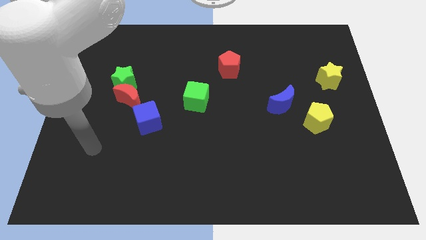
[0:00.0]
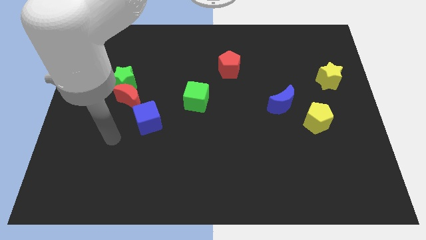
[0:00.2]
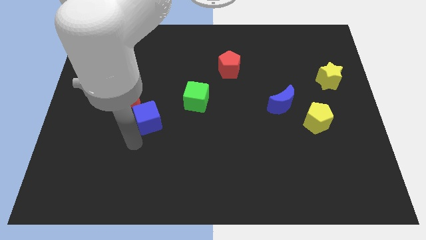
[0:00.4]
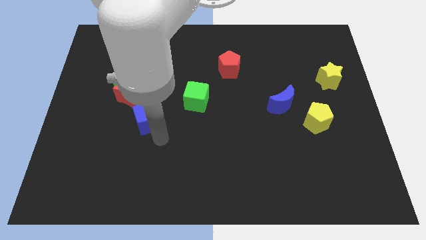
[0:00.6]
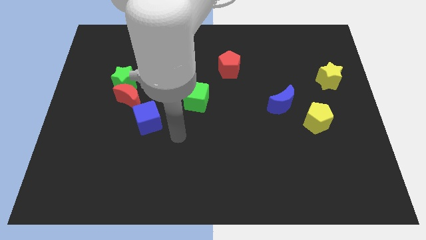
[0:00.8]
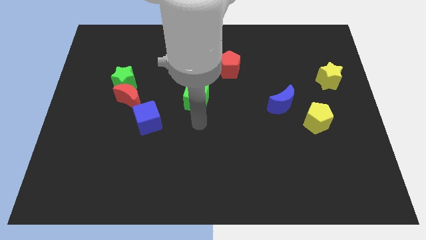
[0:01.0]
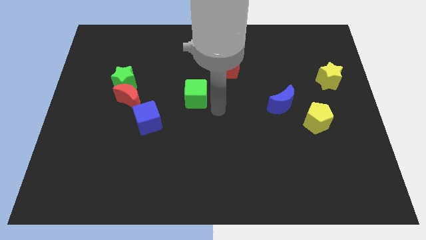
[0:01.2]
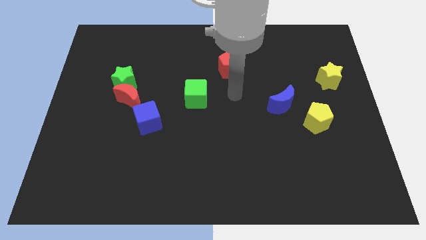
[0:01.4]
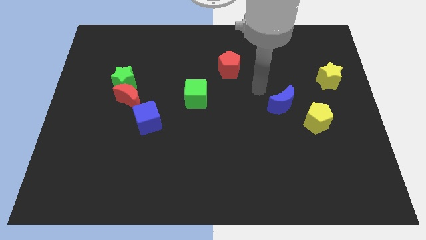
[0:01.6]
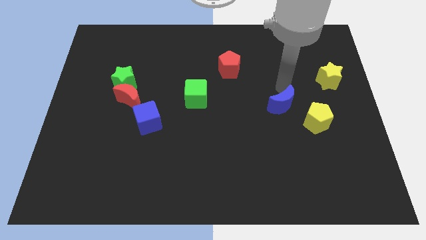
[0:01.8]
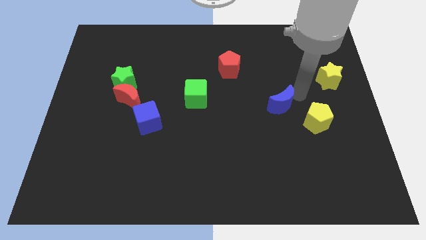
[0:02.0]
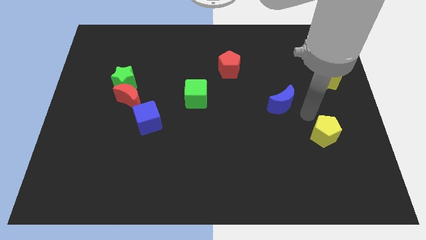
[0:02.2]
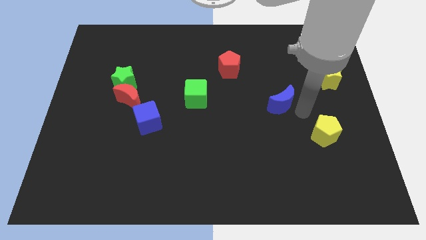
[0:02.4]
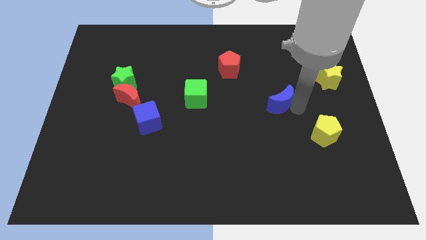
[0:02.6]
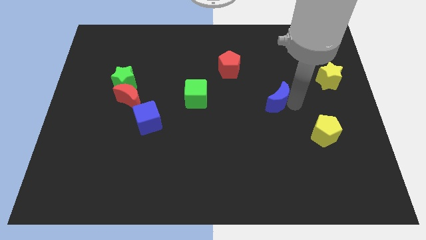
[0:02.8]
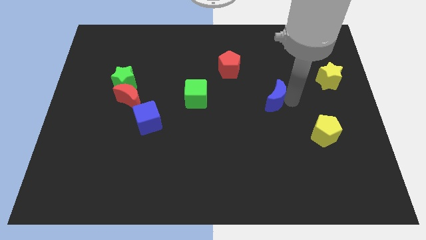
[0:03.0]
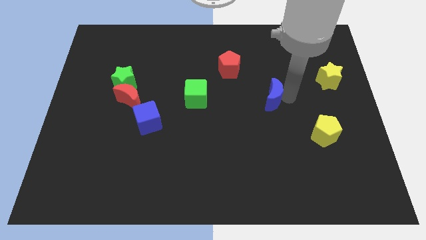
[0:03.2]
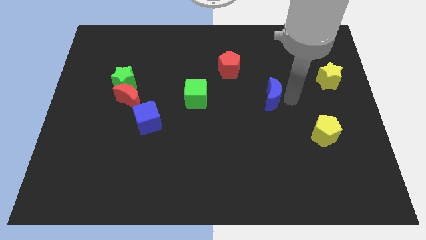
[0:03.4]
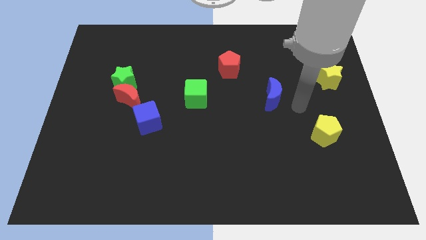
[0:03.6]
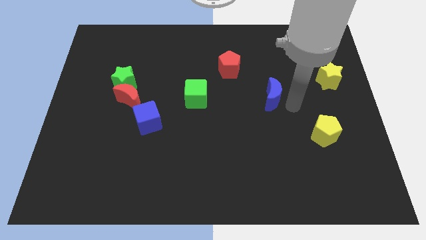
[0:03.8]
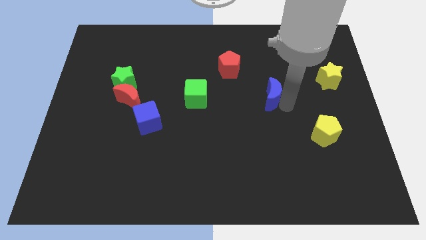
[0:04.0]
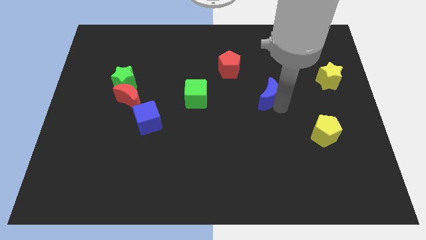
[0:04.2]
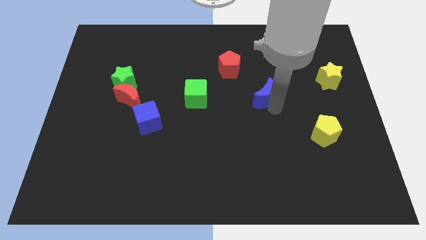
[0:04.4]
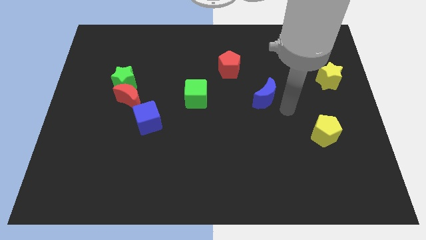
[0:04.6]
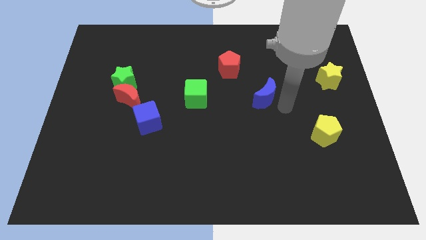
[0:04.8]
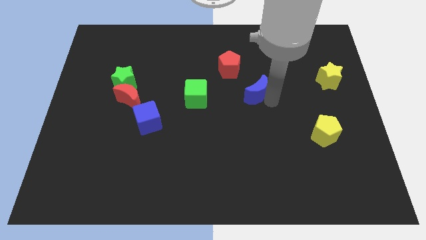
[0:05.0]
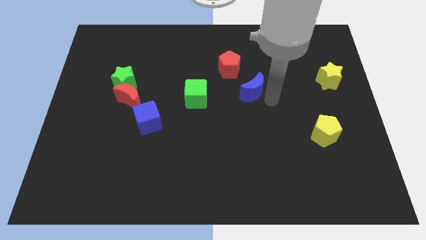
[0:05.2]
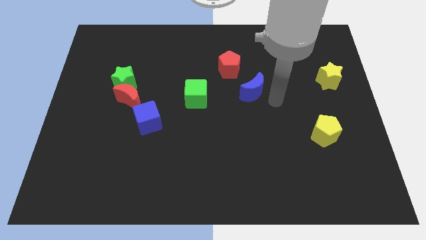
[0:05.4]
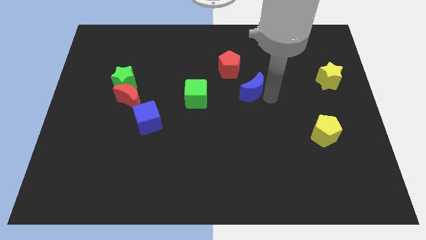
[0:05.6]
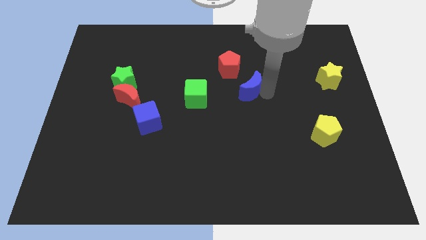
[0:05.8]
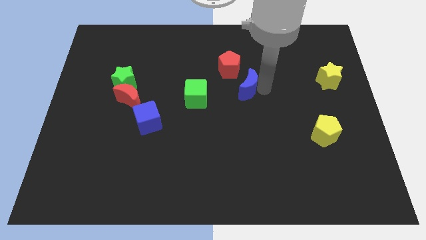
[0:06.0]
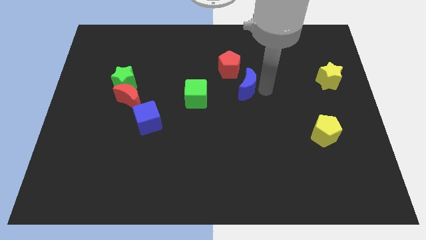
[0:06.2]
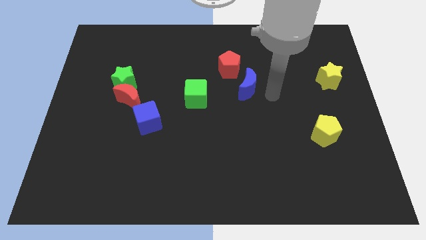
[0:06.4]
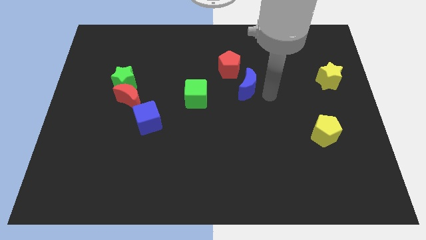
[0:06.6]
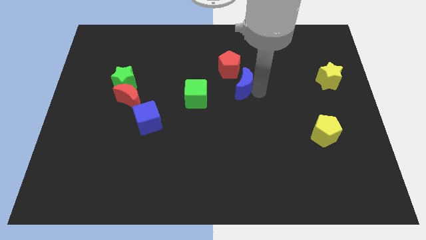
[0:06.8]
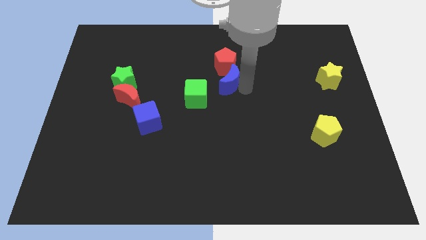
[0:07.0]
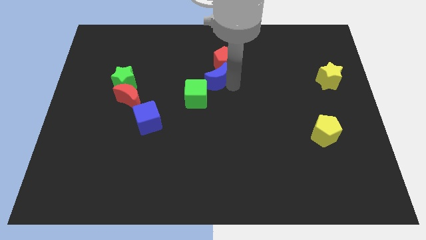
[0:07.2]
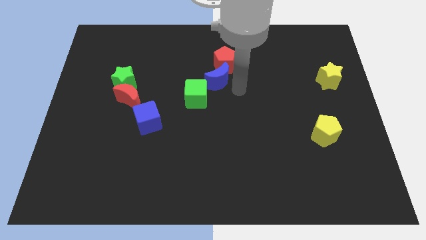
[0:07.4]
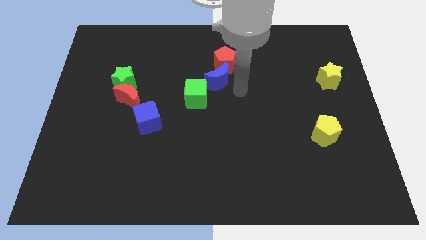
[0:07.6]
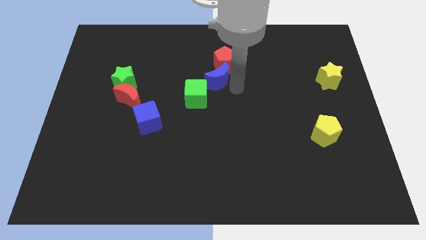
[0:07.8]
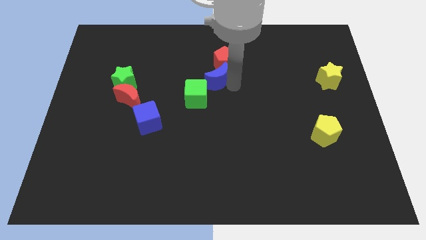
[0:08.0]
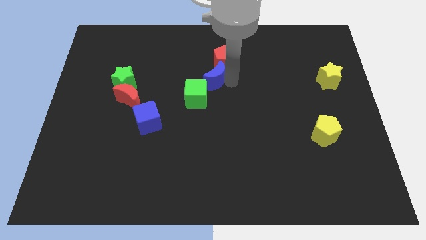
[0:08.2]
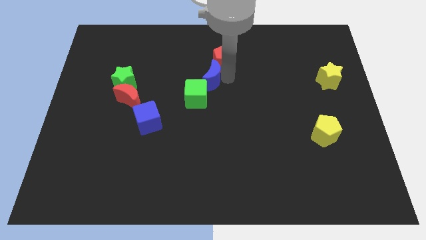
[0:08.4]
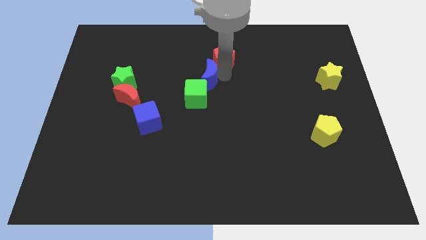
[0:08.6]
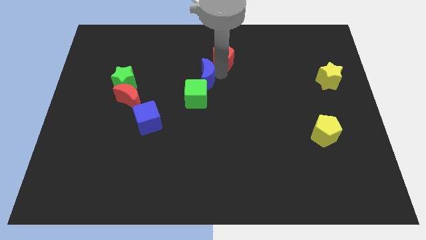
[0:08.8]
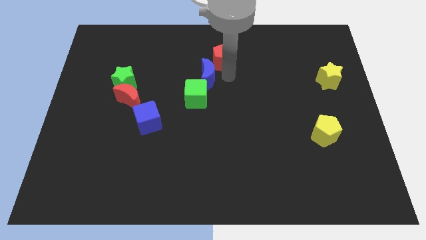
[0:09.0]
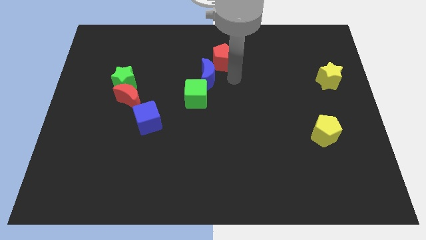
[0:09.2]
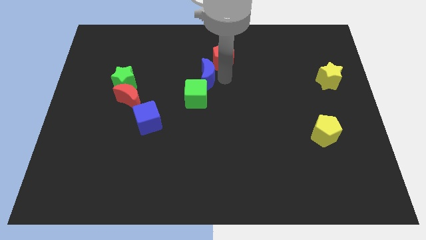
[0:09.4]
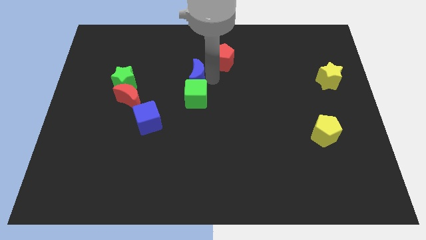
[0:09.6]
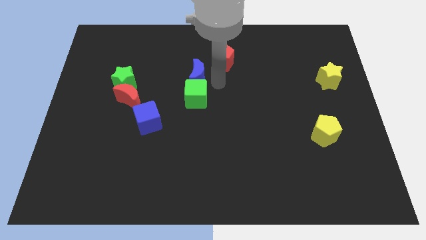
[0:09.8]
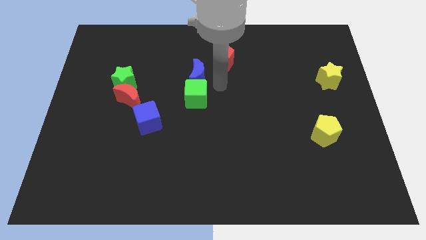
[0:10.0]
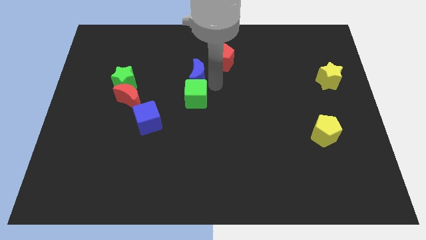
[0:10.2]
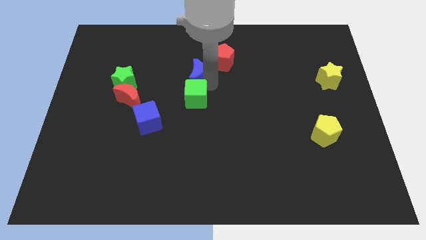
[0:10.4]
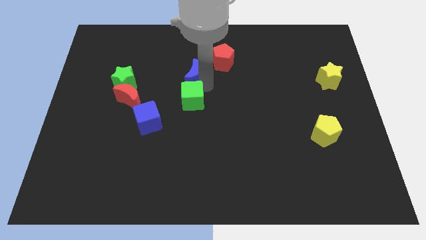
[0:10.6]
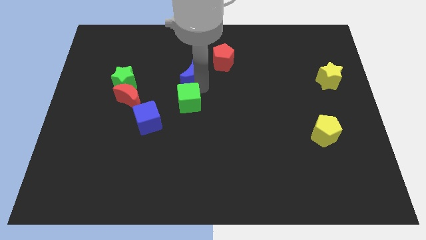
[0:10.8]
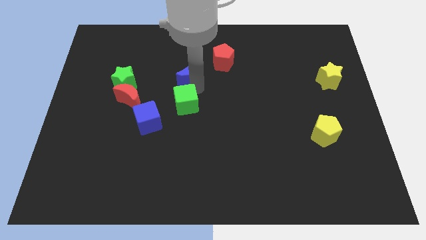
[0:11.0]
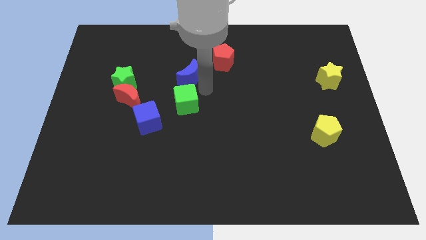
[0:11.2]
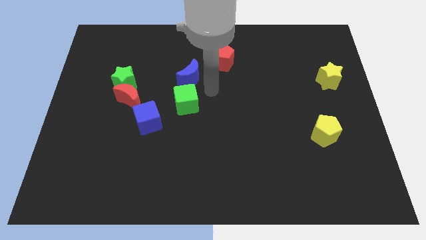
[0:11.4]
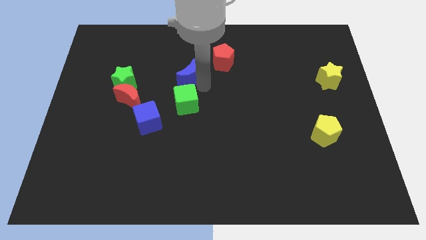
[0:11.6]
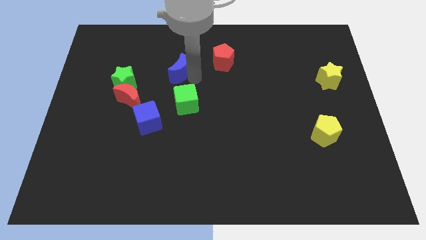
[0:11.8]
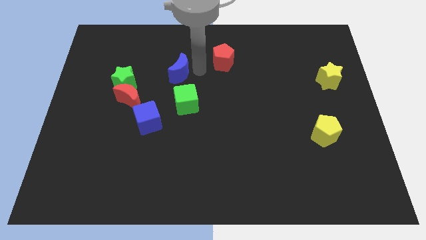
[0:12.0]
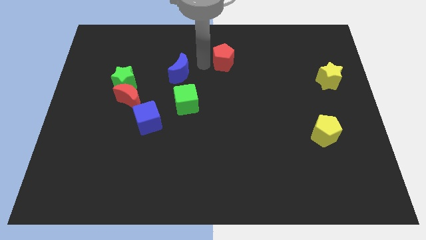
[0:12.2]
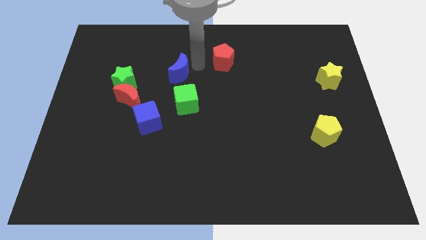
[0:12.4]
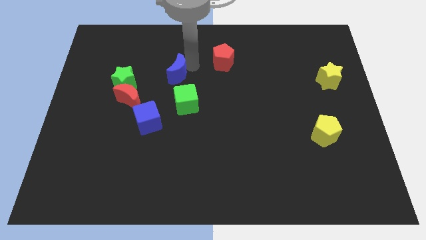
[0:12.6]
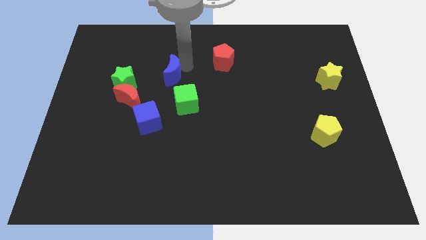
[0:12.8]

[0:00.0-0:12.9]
slide the blue moon to the top right side of the red moon
